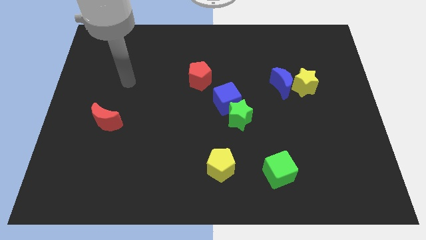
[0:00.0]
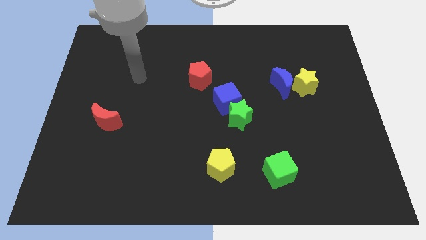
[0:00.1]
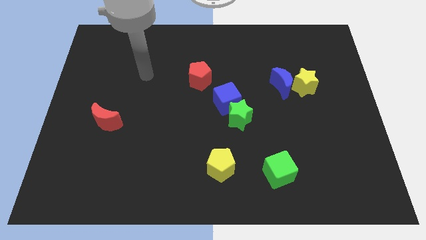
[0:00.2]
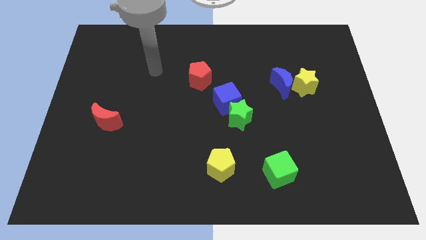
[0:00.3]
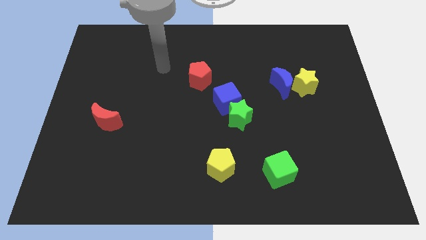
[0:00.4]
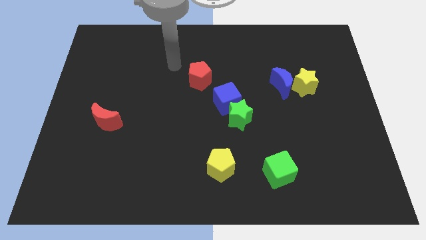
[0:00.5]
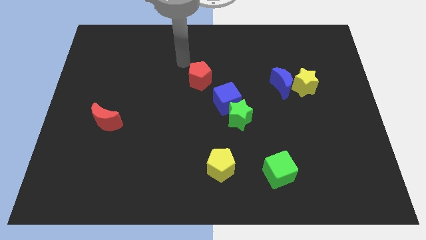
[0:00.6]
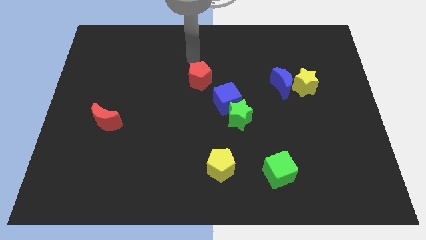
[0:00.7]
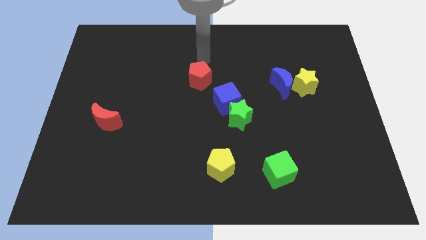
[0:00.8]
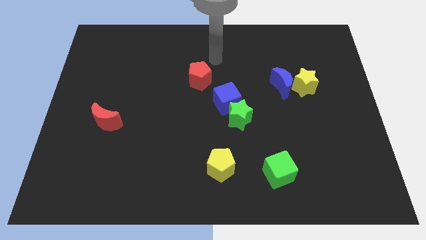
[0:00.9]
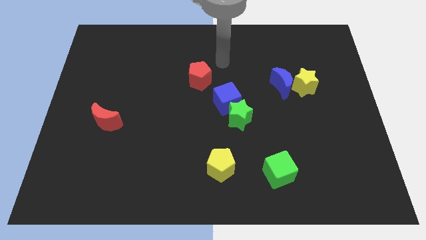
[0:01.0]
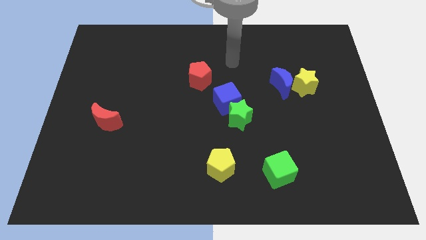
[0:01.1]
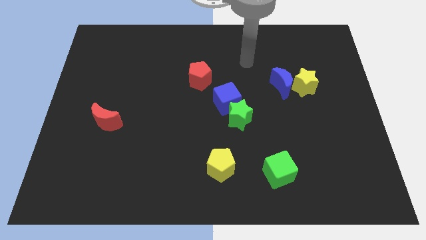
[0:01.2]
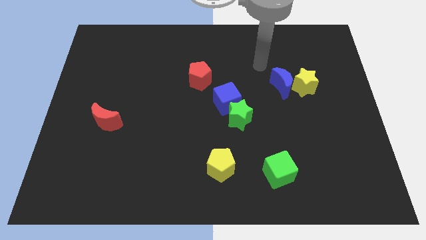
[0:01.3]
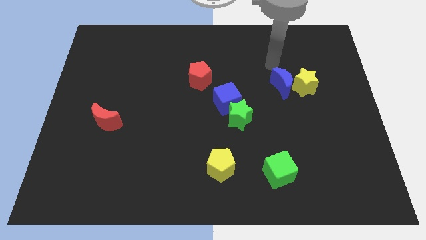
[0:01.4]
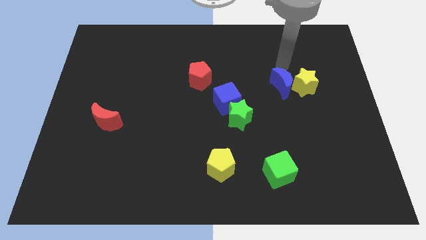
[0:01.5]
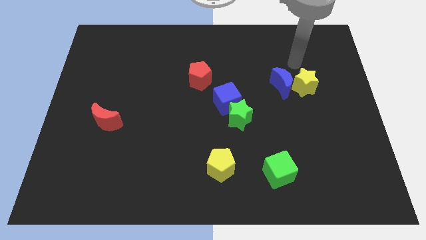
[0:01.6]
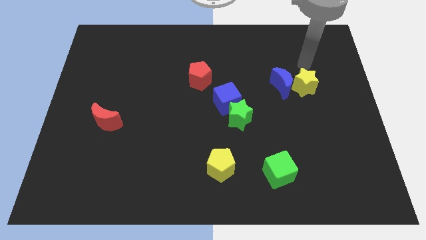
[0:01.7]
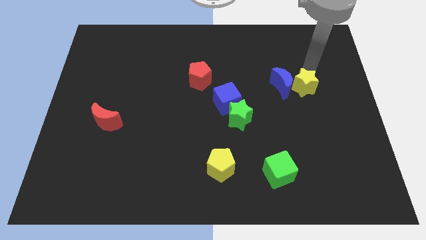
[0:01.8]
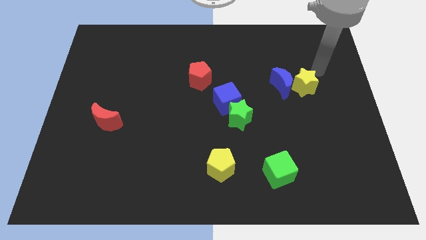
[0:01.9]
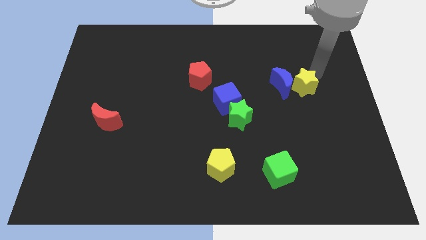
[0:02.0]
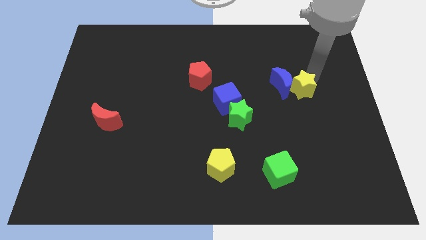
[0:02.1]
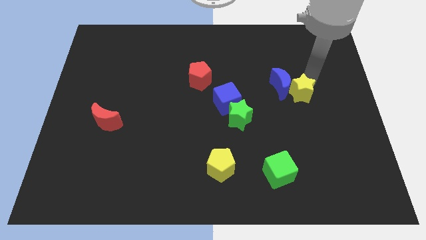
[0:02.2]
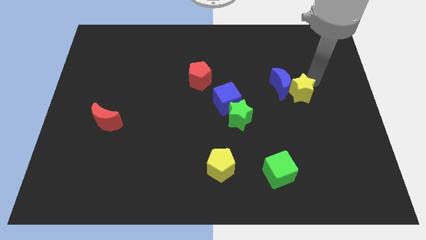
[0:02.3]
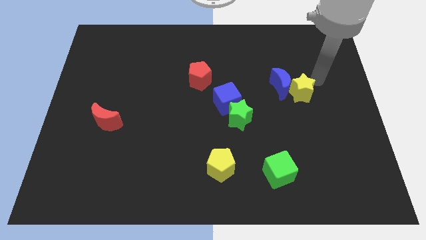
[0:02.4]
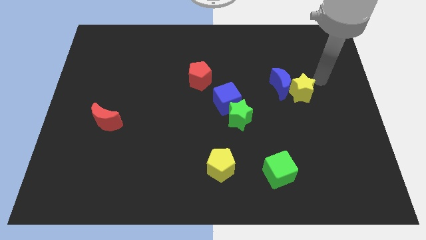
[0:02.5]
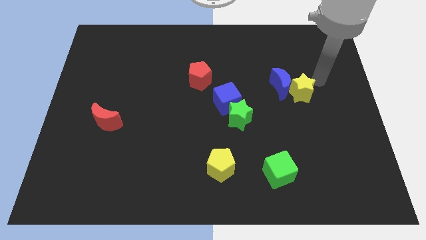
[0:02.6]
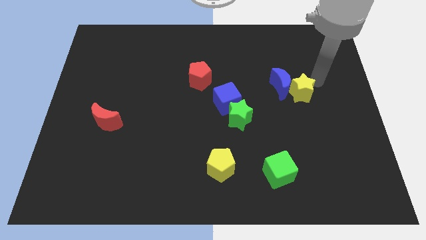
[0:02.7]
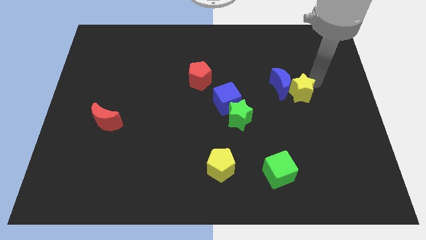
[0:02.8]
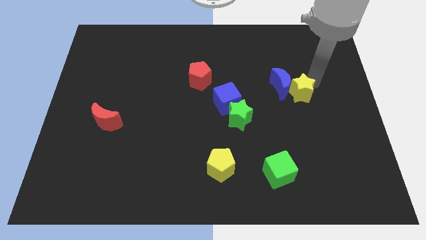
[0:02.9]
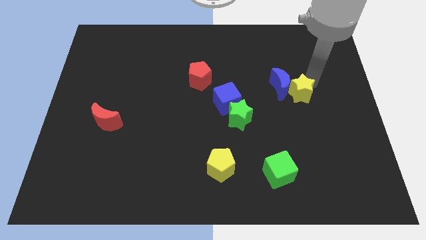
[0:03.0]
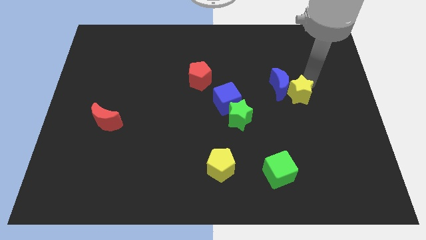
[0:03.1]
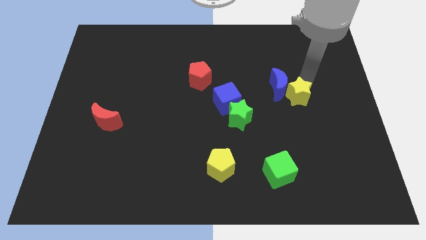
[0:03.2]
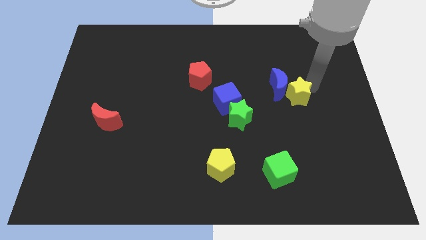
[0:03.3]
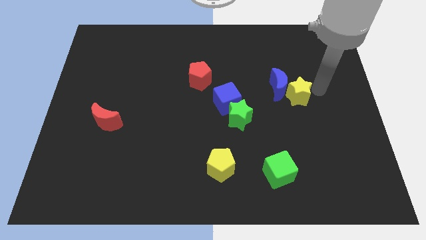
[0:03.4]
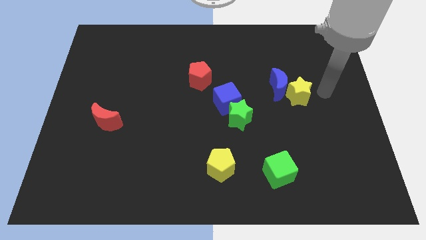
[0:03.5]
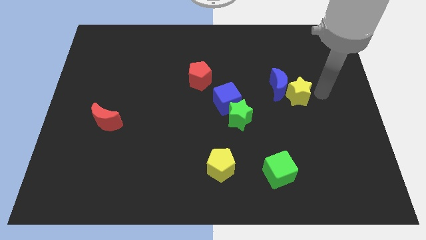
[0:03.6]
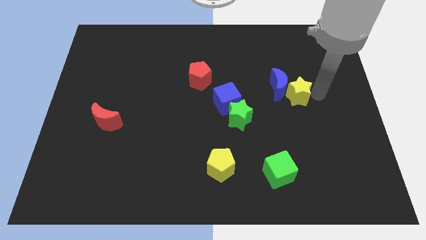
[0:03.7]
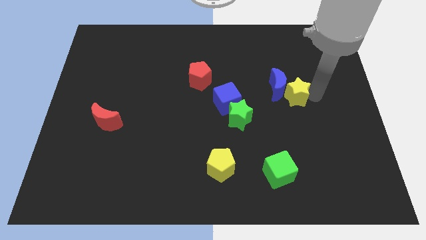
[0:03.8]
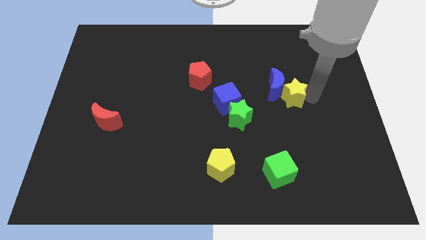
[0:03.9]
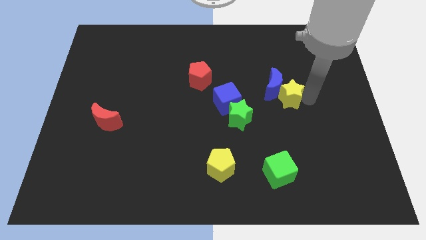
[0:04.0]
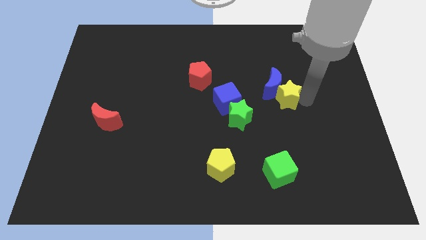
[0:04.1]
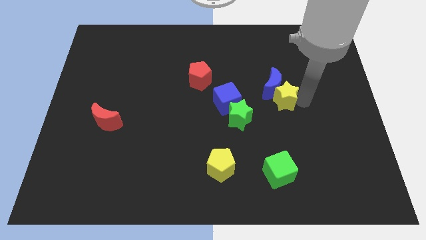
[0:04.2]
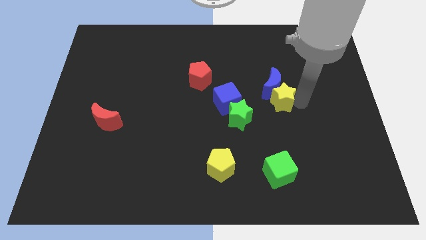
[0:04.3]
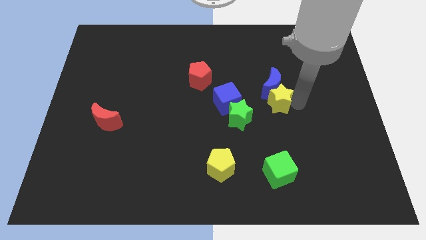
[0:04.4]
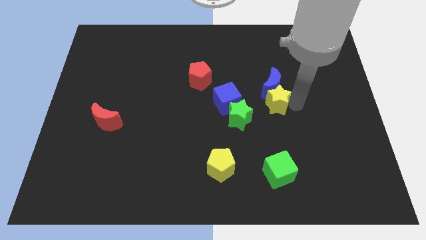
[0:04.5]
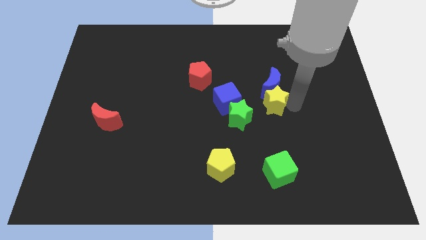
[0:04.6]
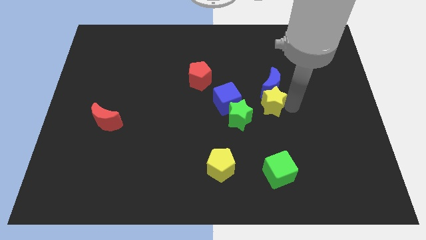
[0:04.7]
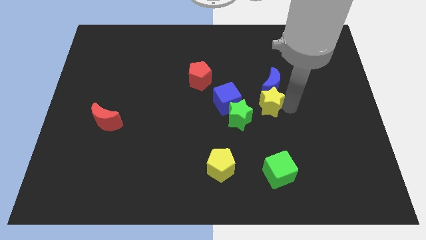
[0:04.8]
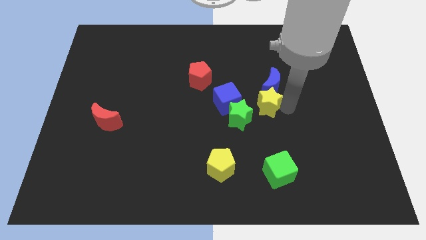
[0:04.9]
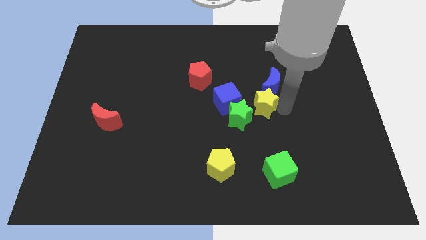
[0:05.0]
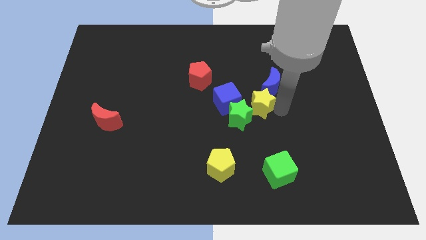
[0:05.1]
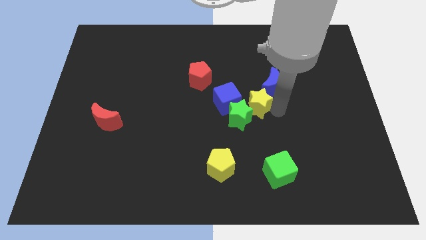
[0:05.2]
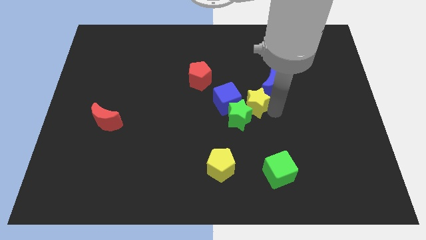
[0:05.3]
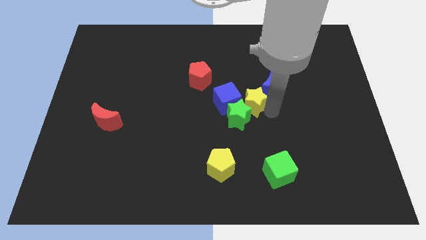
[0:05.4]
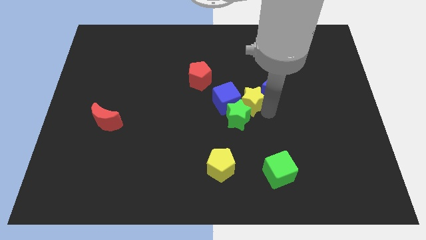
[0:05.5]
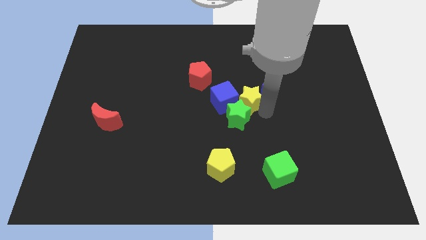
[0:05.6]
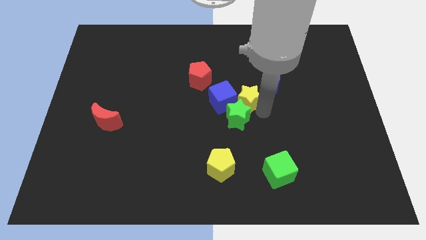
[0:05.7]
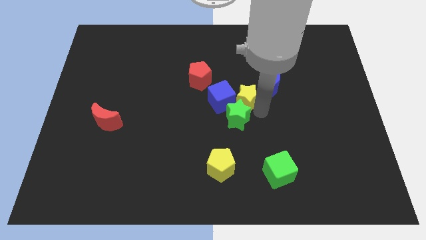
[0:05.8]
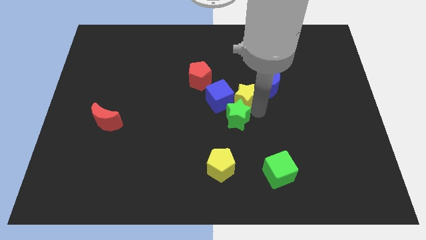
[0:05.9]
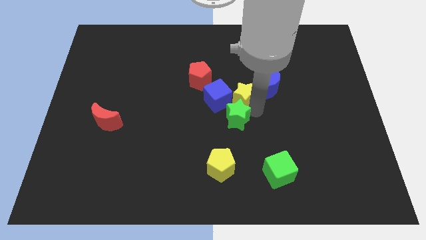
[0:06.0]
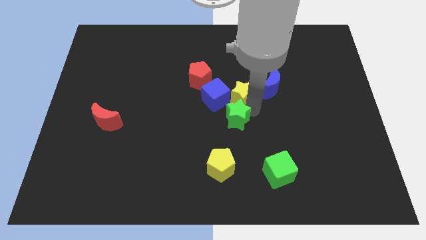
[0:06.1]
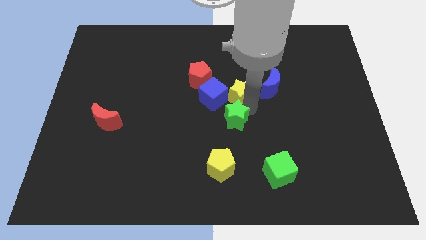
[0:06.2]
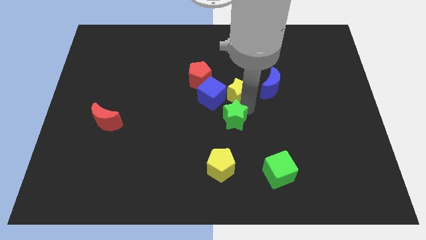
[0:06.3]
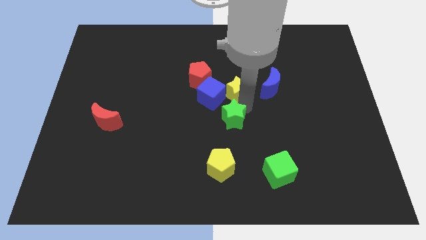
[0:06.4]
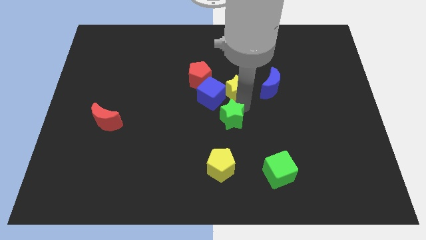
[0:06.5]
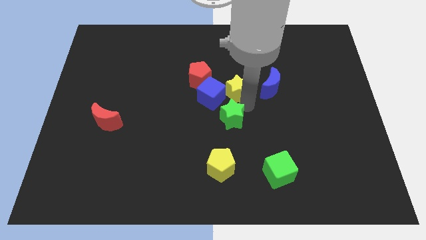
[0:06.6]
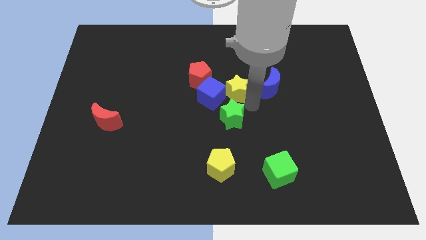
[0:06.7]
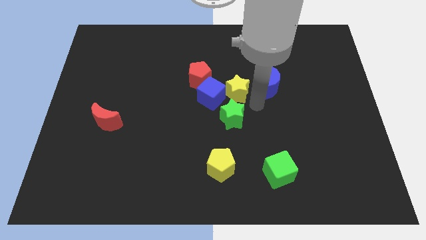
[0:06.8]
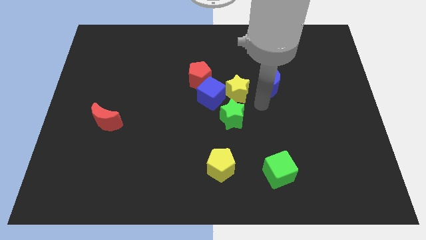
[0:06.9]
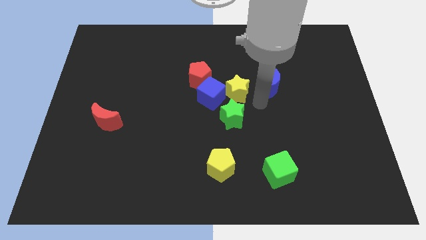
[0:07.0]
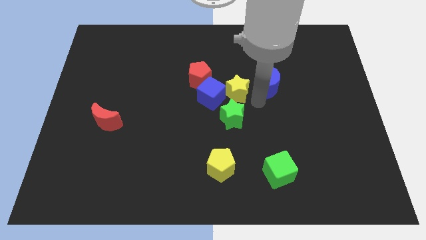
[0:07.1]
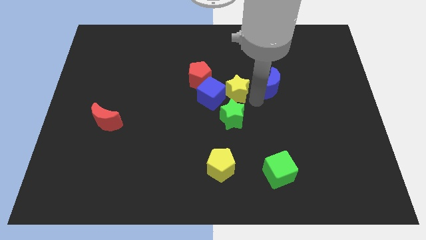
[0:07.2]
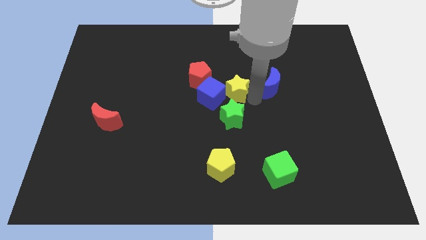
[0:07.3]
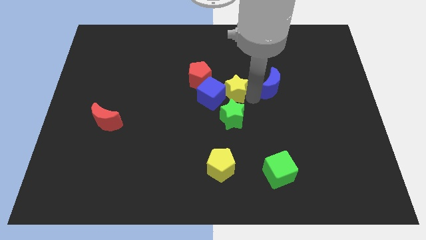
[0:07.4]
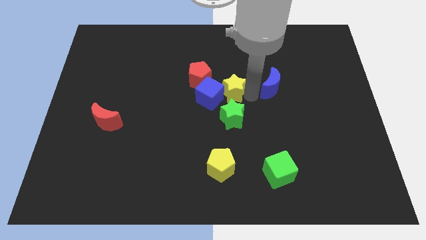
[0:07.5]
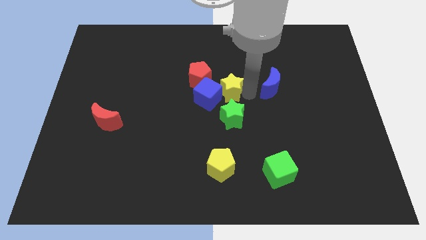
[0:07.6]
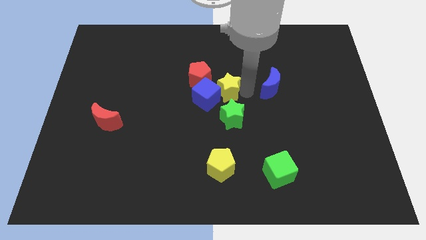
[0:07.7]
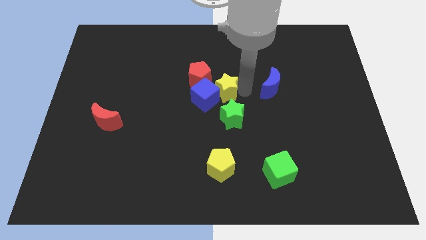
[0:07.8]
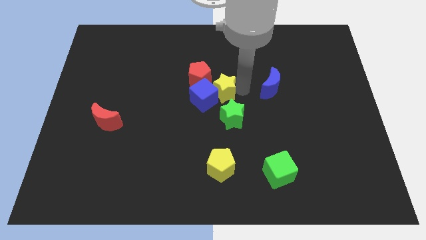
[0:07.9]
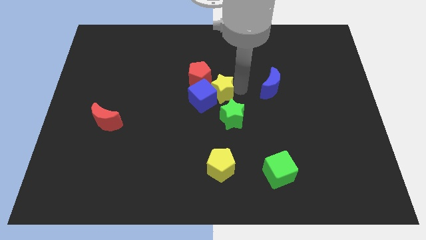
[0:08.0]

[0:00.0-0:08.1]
move the yellow star left
